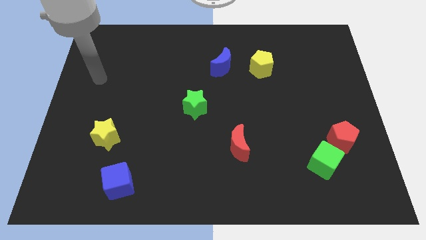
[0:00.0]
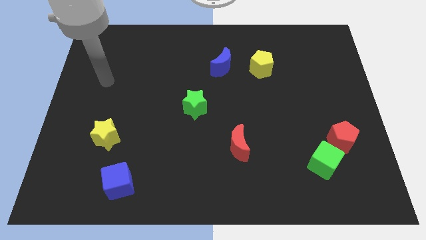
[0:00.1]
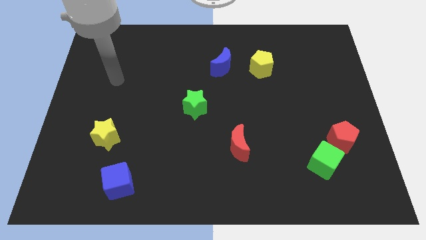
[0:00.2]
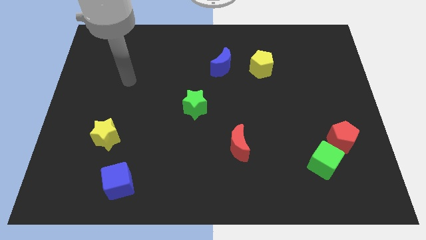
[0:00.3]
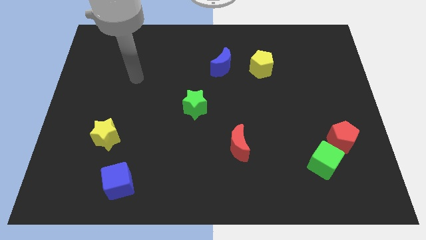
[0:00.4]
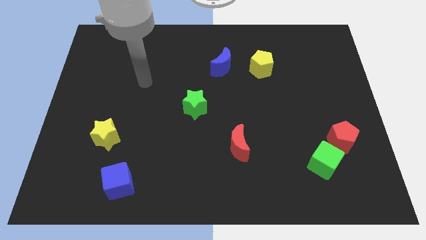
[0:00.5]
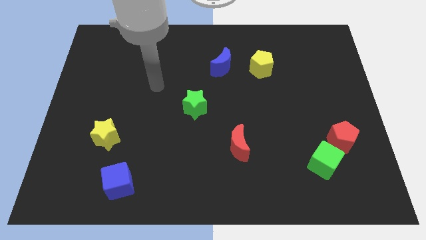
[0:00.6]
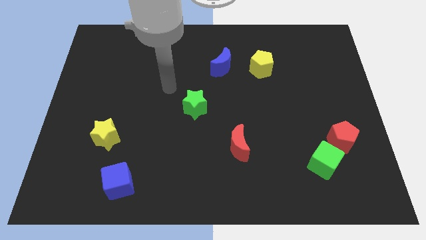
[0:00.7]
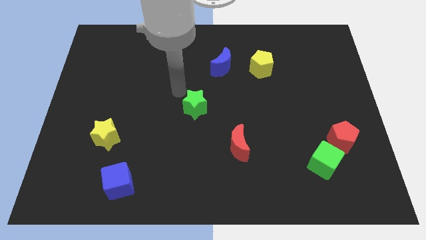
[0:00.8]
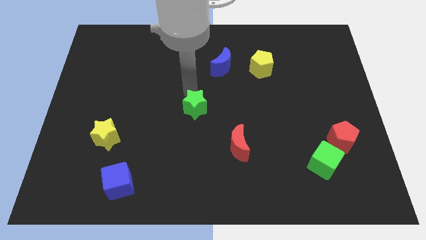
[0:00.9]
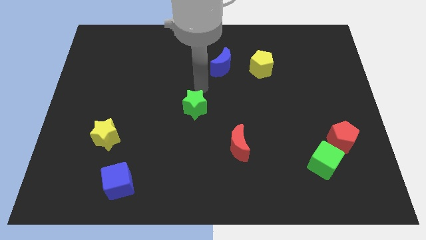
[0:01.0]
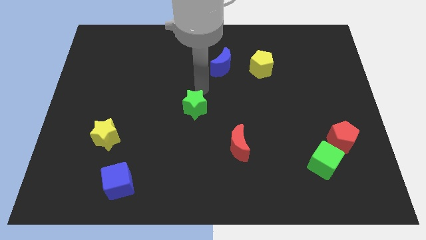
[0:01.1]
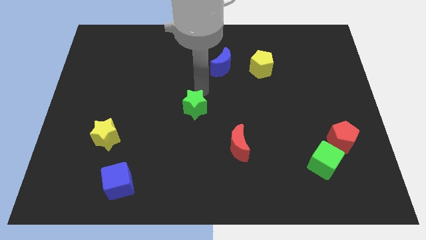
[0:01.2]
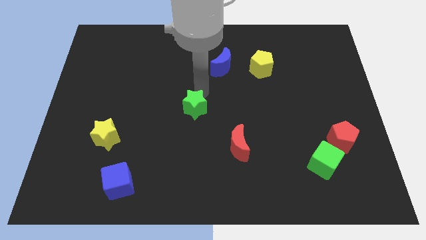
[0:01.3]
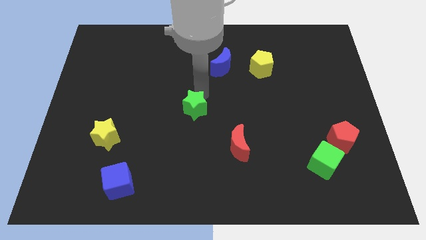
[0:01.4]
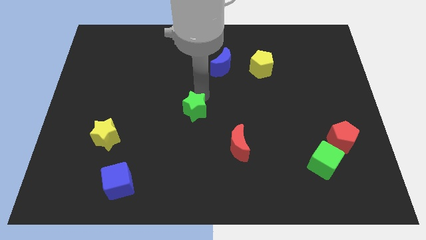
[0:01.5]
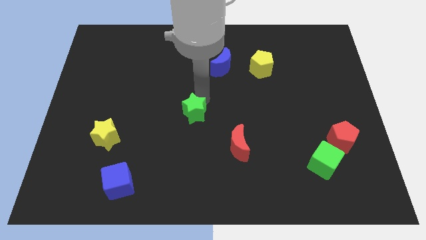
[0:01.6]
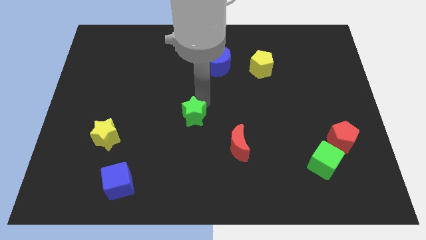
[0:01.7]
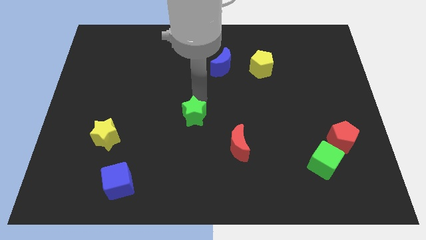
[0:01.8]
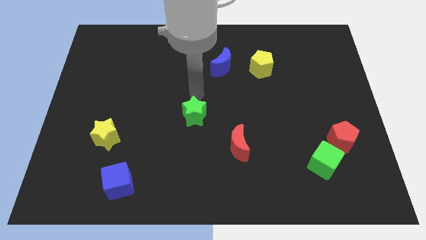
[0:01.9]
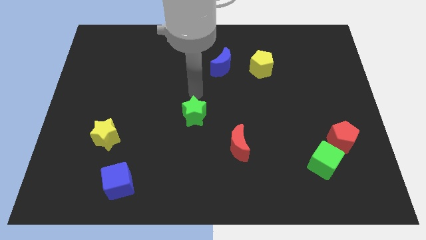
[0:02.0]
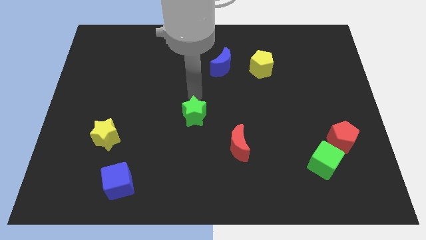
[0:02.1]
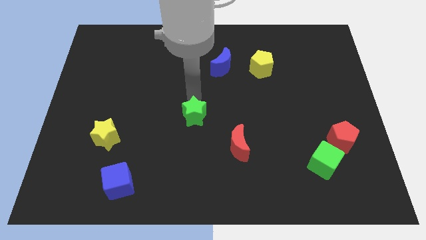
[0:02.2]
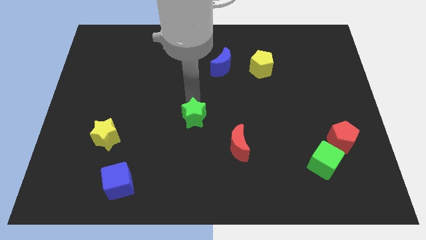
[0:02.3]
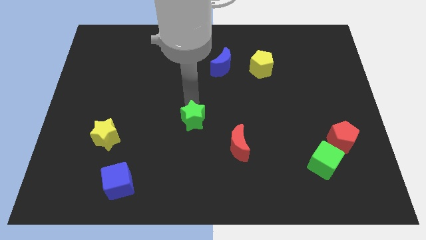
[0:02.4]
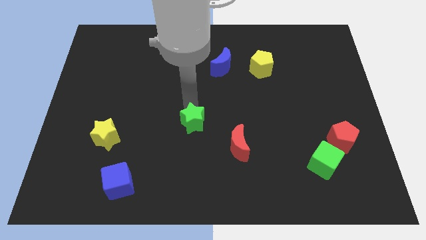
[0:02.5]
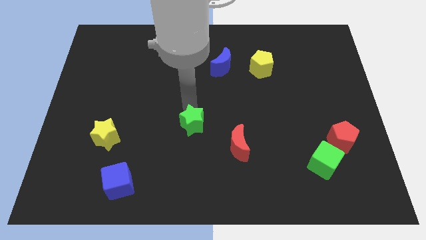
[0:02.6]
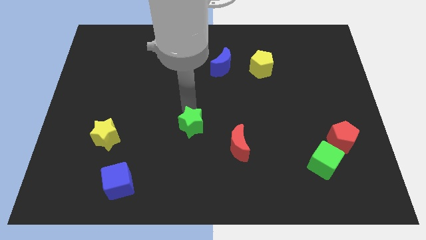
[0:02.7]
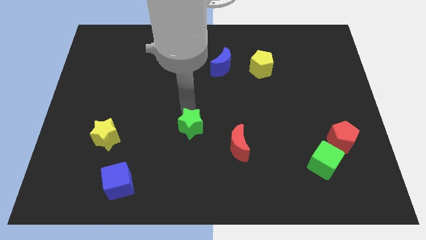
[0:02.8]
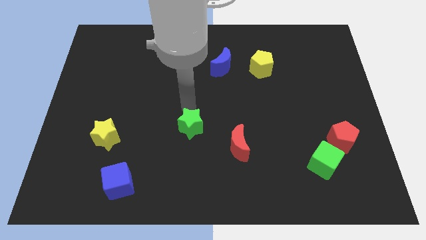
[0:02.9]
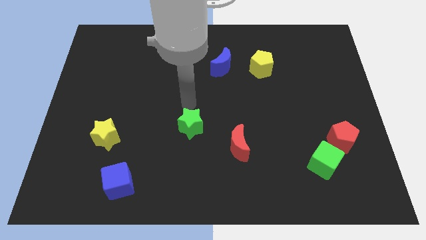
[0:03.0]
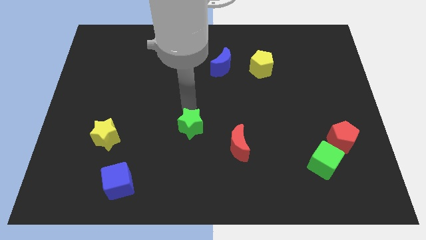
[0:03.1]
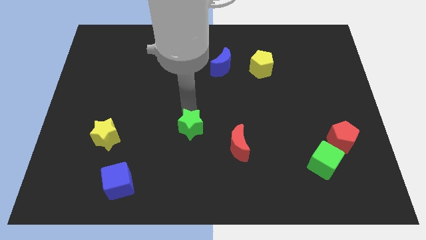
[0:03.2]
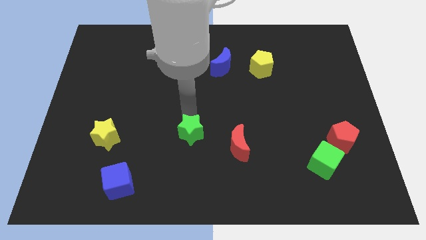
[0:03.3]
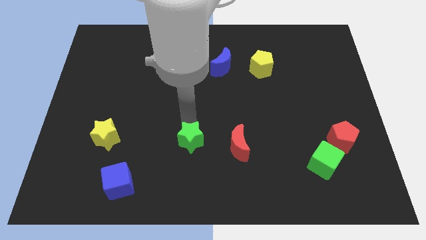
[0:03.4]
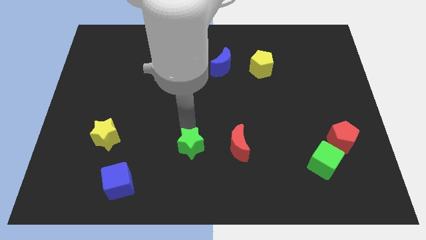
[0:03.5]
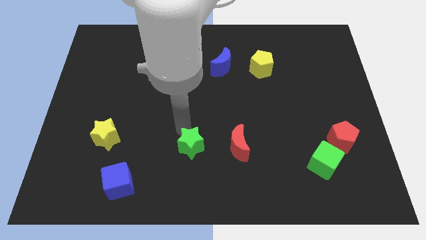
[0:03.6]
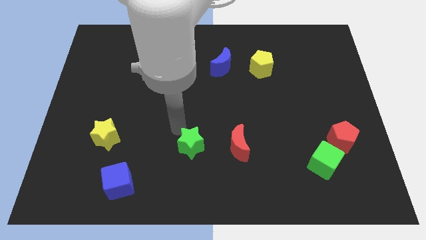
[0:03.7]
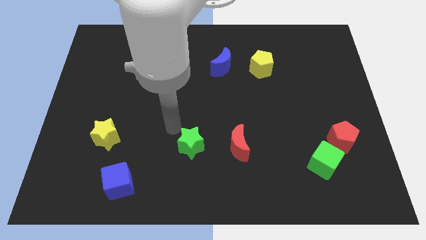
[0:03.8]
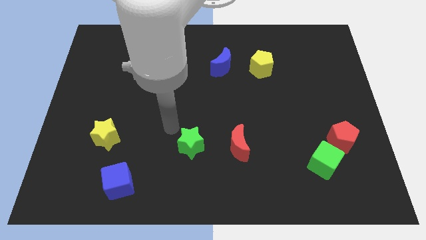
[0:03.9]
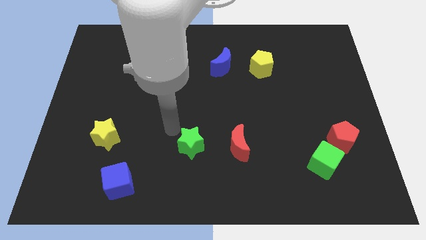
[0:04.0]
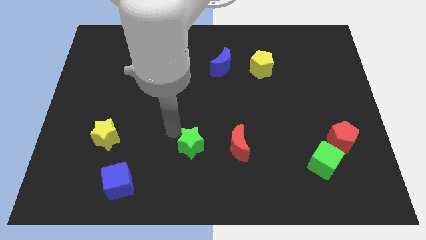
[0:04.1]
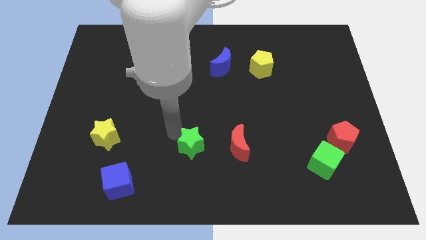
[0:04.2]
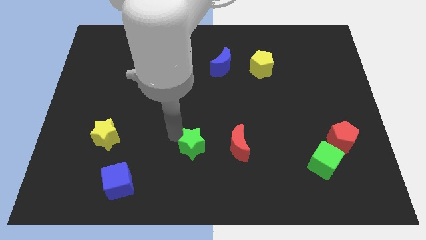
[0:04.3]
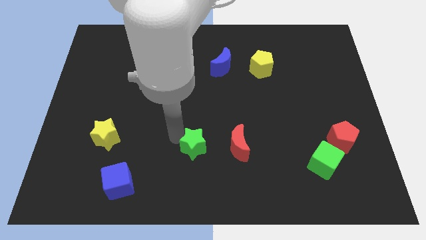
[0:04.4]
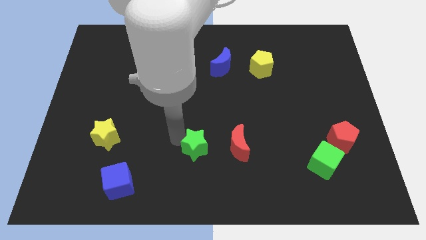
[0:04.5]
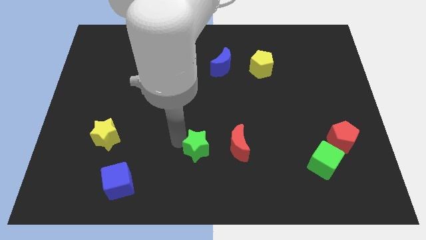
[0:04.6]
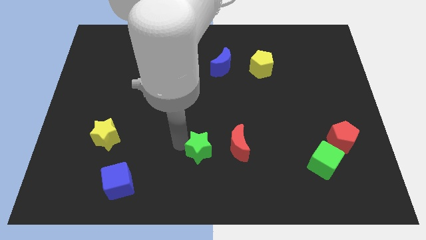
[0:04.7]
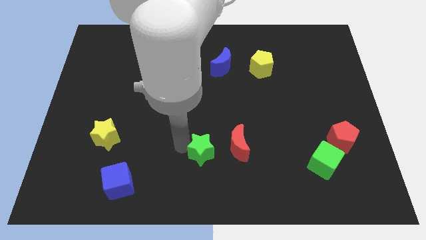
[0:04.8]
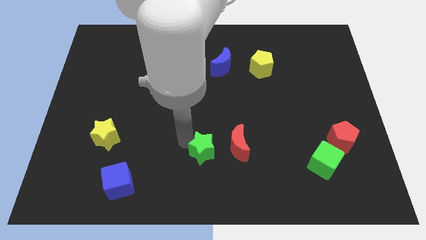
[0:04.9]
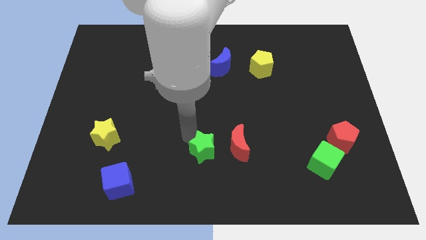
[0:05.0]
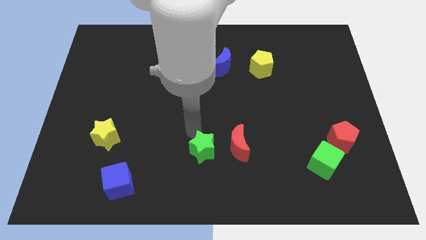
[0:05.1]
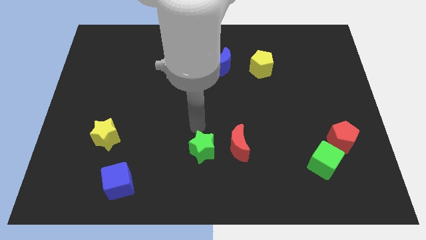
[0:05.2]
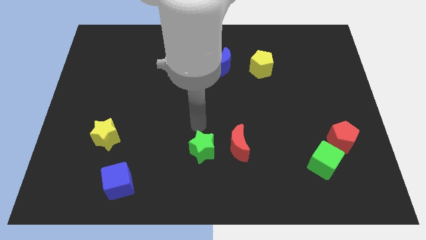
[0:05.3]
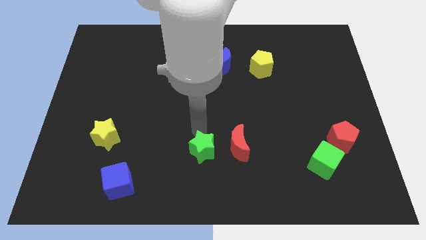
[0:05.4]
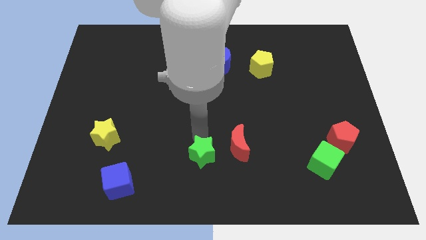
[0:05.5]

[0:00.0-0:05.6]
move the green star to the bottom

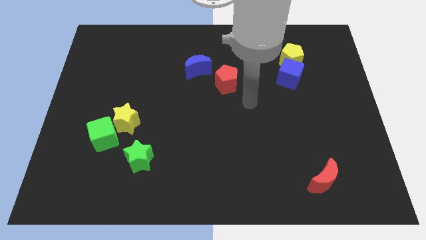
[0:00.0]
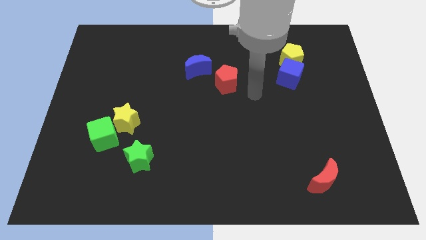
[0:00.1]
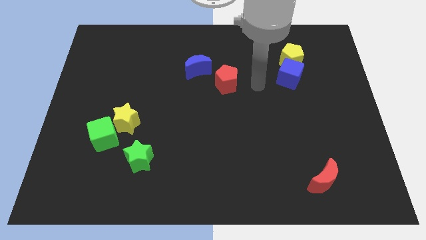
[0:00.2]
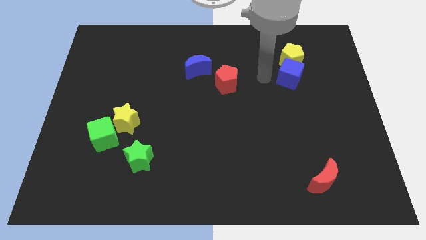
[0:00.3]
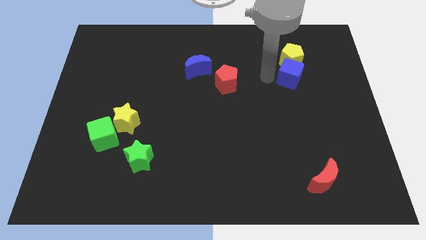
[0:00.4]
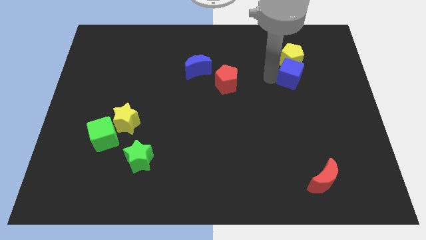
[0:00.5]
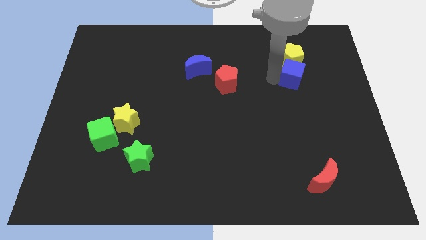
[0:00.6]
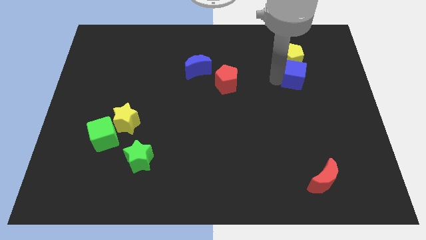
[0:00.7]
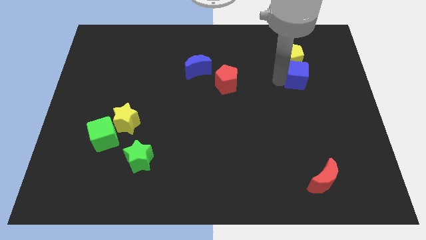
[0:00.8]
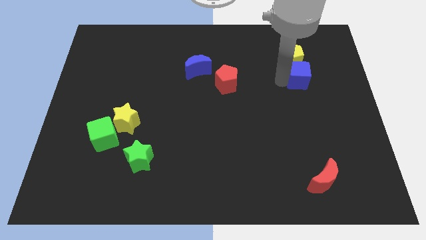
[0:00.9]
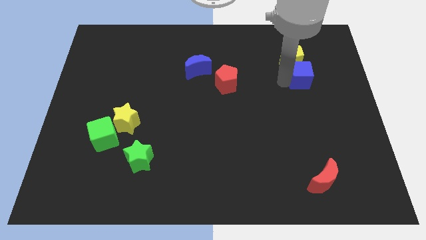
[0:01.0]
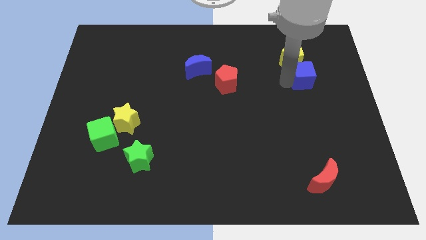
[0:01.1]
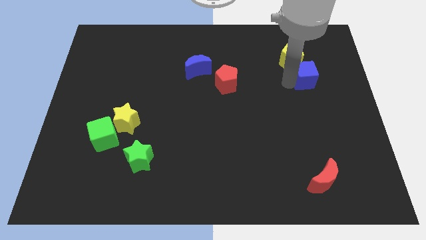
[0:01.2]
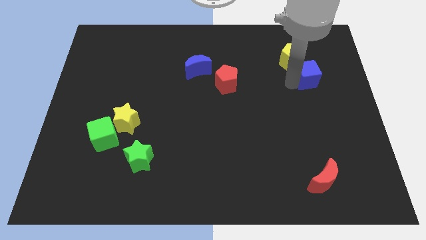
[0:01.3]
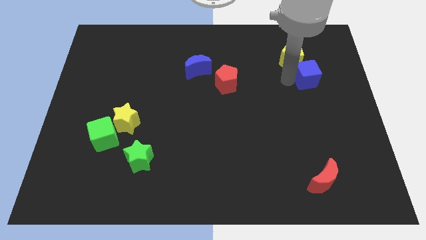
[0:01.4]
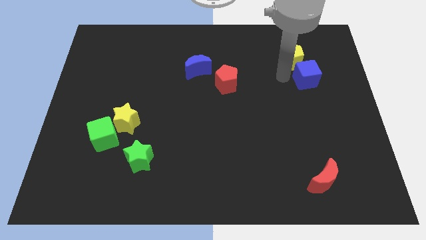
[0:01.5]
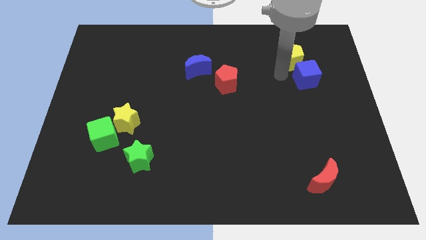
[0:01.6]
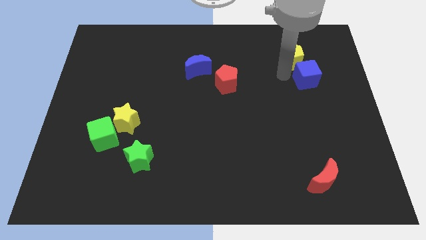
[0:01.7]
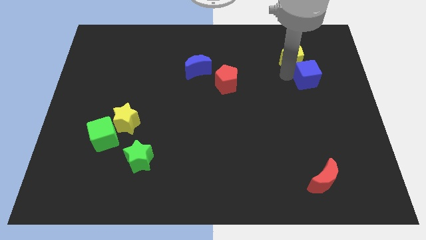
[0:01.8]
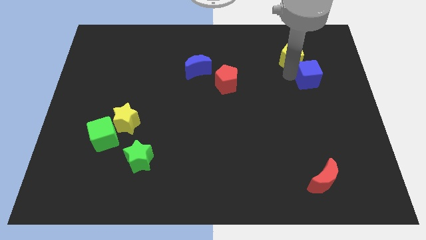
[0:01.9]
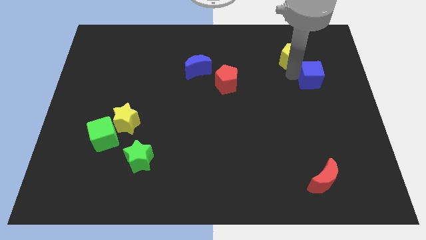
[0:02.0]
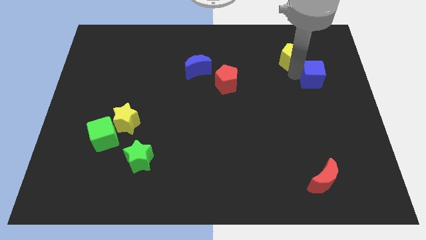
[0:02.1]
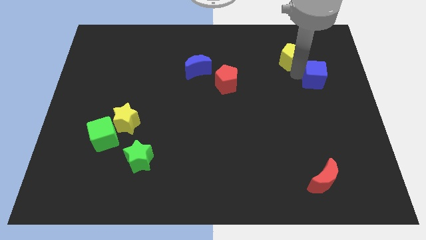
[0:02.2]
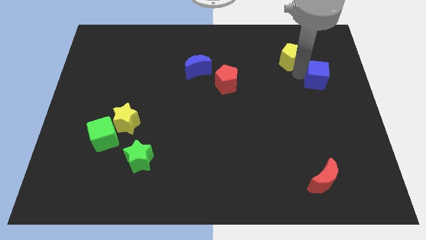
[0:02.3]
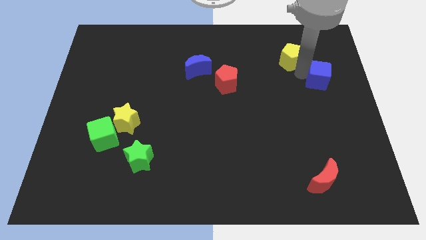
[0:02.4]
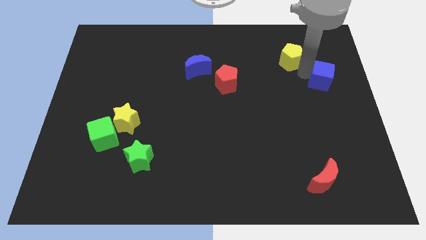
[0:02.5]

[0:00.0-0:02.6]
slide the blue cube to the center right
